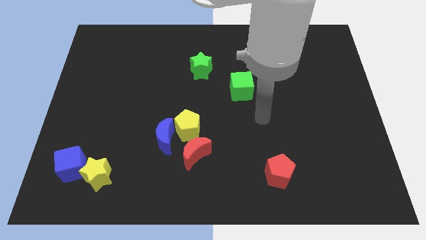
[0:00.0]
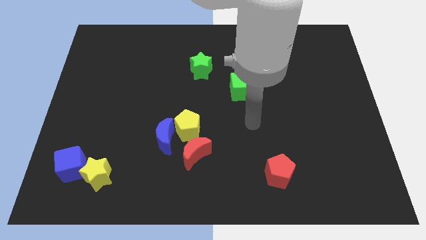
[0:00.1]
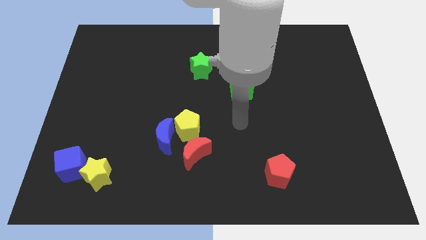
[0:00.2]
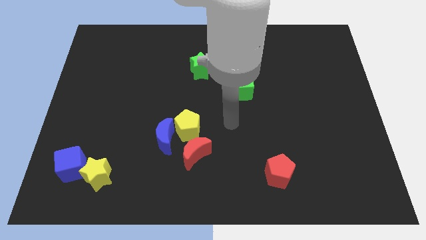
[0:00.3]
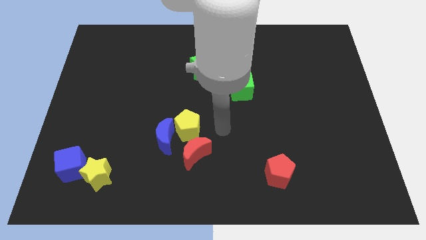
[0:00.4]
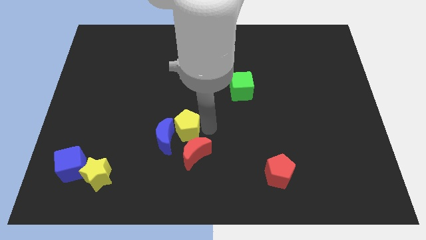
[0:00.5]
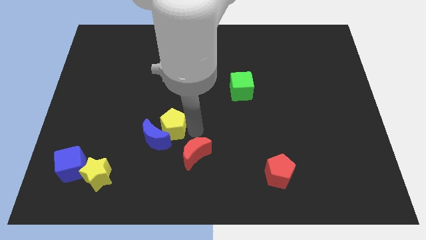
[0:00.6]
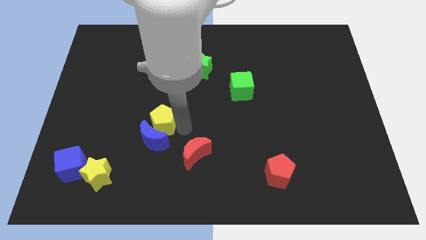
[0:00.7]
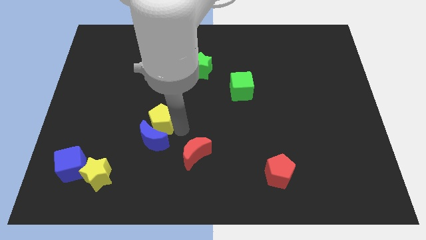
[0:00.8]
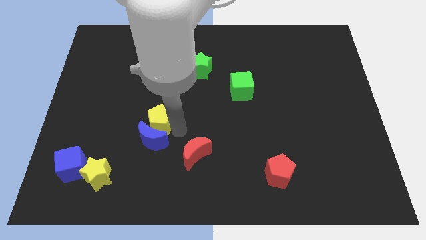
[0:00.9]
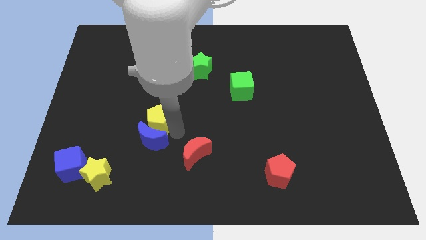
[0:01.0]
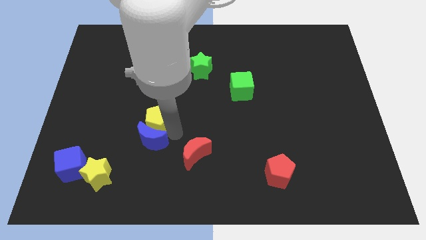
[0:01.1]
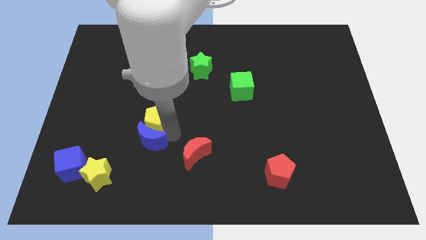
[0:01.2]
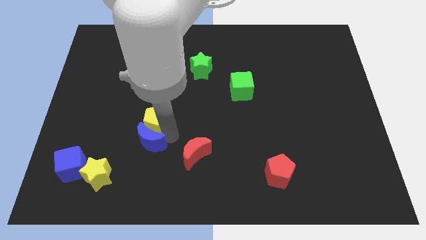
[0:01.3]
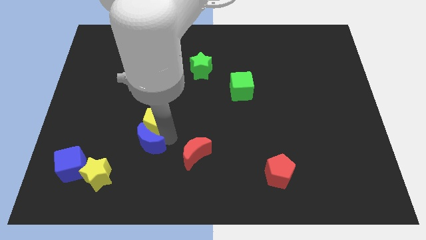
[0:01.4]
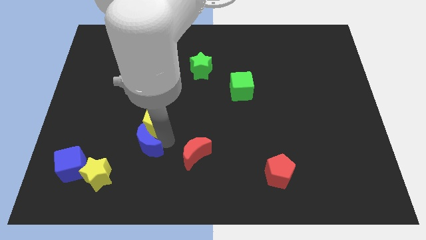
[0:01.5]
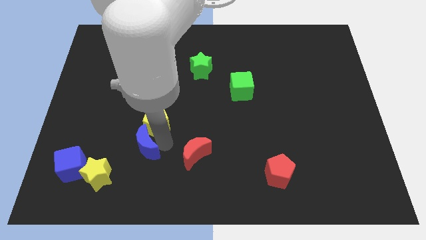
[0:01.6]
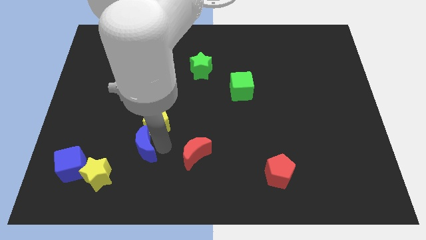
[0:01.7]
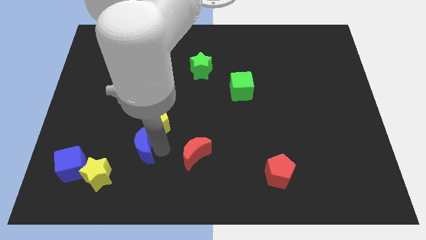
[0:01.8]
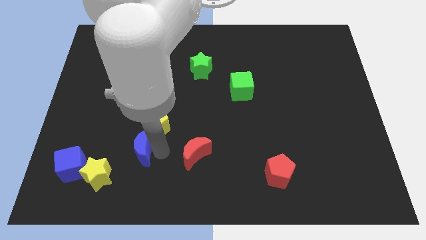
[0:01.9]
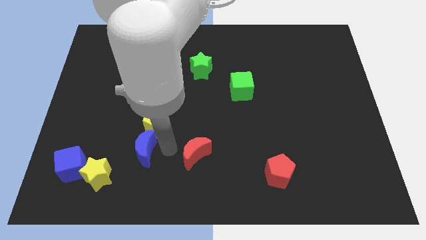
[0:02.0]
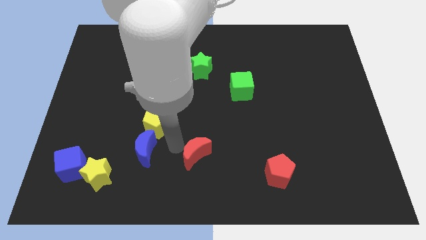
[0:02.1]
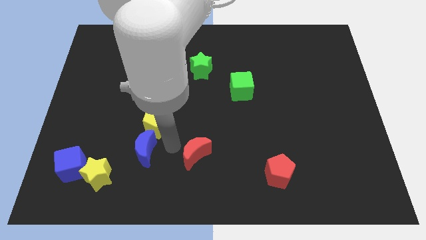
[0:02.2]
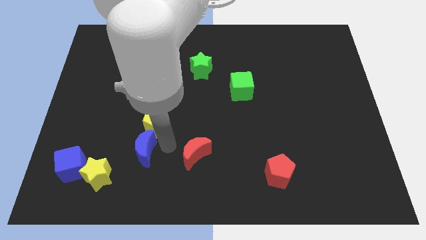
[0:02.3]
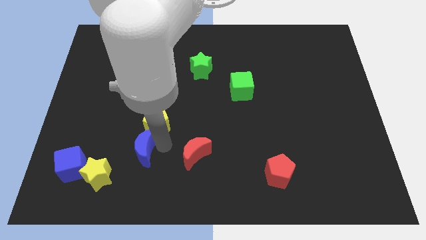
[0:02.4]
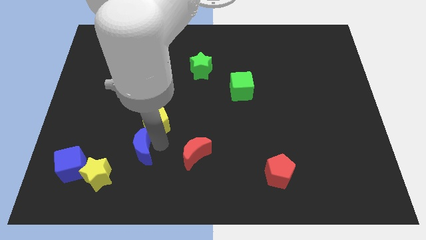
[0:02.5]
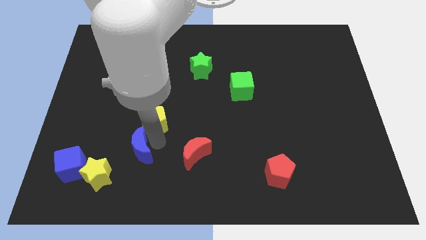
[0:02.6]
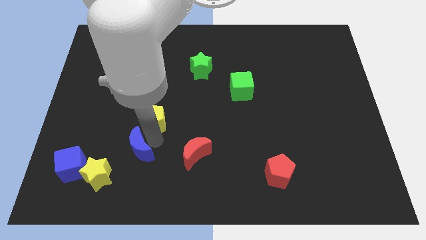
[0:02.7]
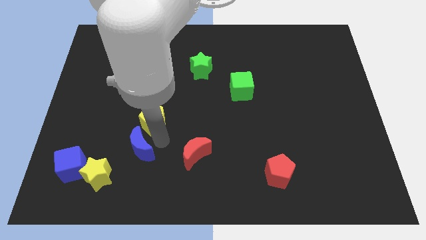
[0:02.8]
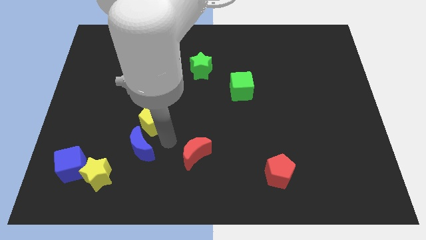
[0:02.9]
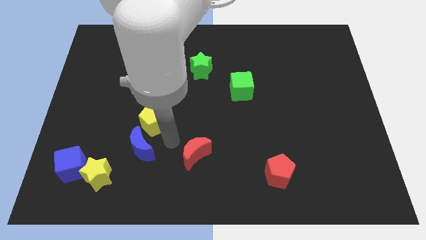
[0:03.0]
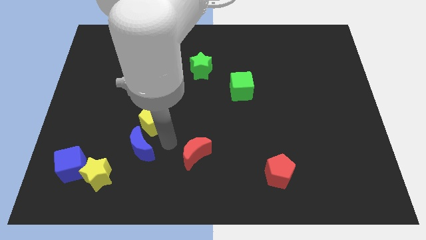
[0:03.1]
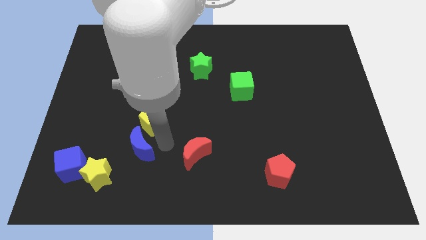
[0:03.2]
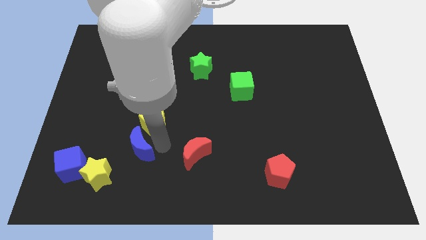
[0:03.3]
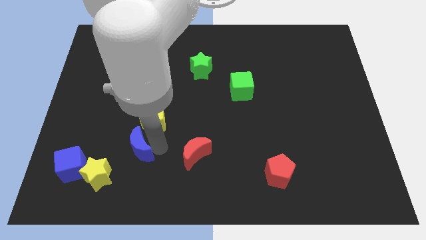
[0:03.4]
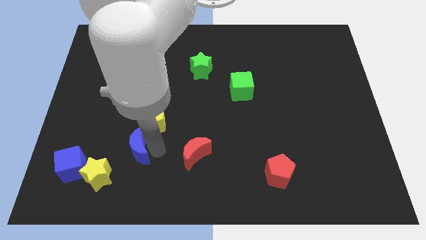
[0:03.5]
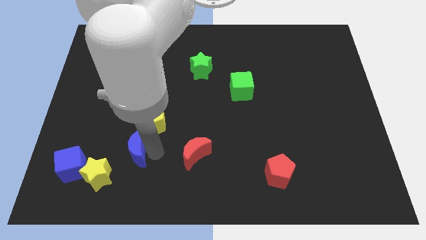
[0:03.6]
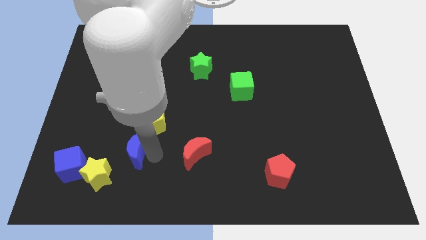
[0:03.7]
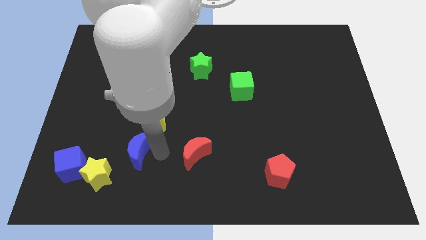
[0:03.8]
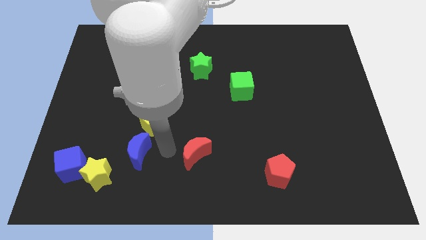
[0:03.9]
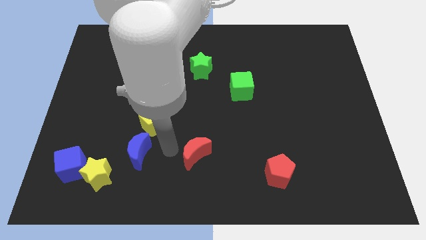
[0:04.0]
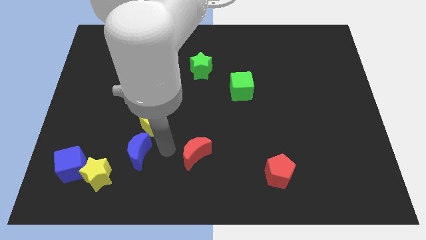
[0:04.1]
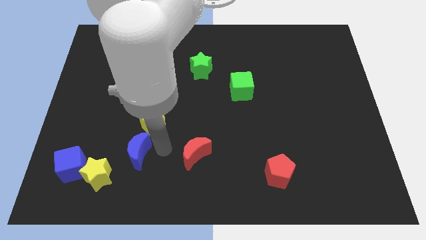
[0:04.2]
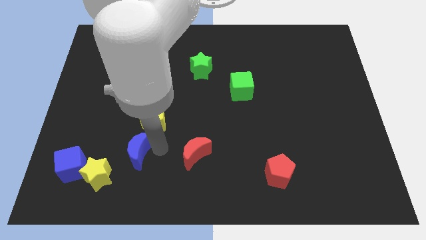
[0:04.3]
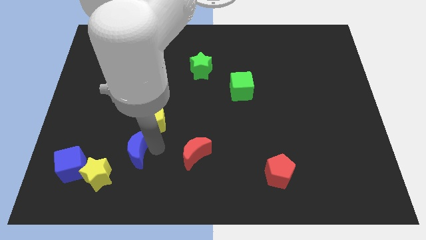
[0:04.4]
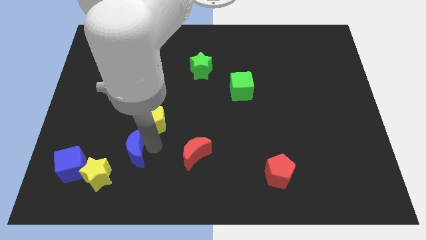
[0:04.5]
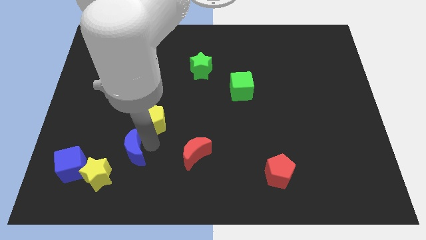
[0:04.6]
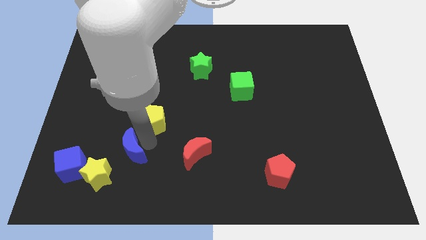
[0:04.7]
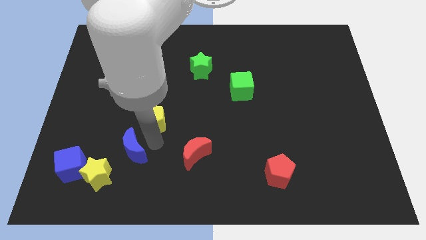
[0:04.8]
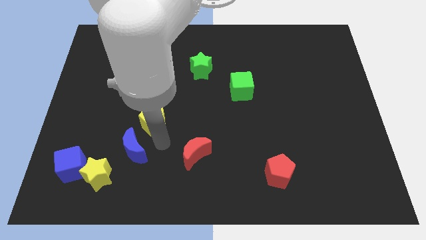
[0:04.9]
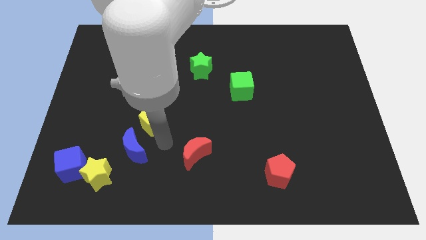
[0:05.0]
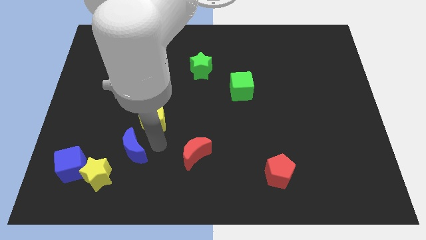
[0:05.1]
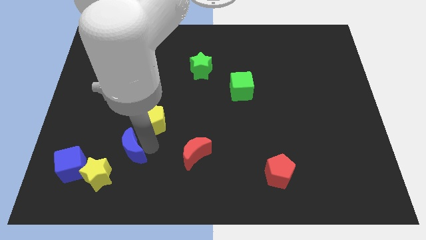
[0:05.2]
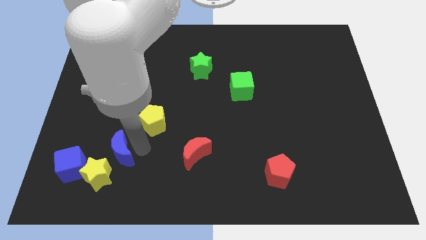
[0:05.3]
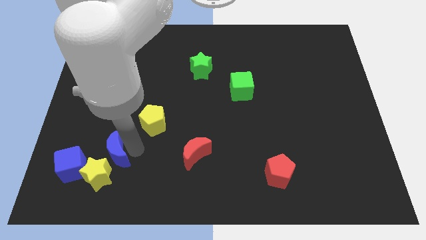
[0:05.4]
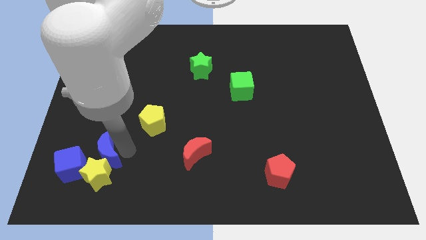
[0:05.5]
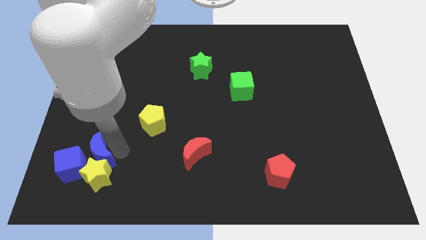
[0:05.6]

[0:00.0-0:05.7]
move the blue moon towards the blue cube

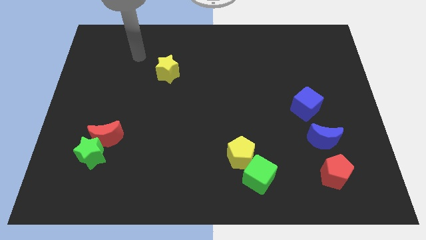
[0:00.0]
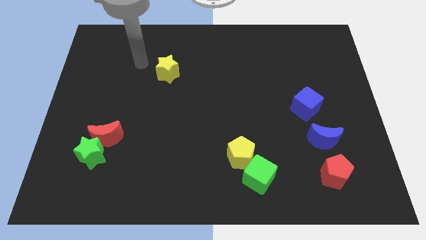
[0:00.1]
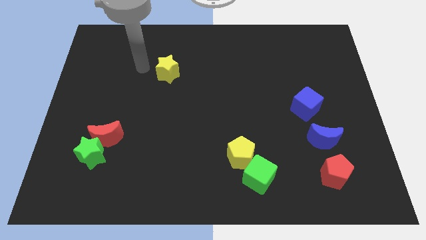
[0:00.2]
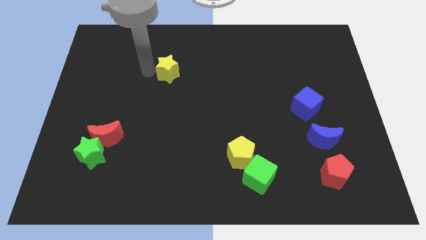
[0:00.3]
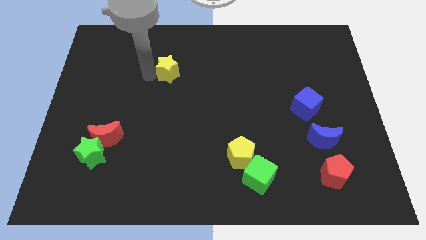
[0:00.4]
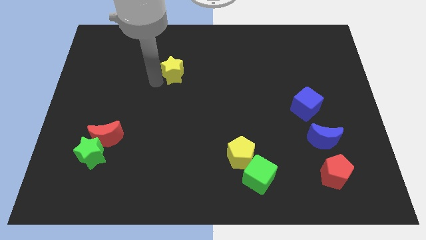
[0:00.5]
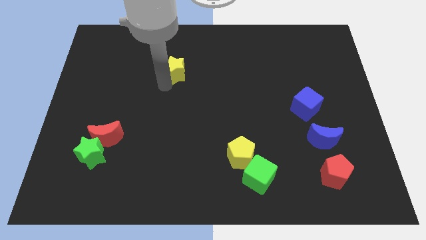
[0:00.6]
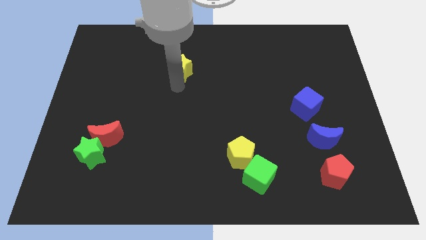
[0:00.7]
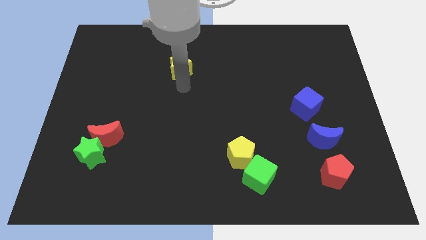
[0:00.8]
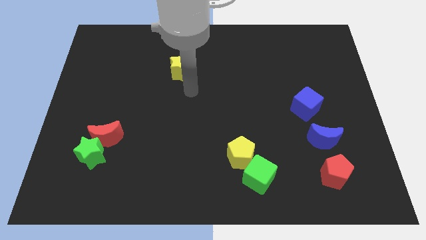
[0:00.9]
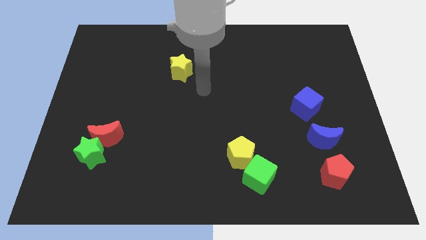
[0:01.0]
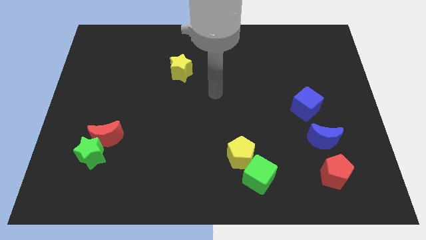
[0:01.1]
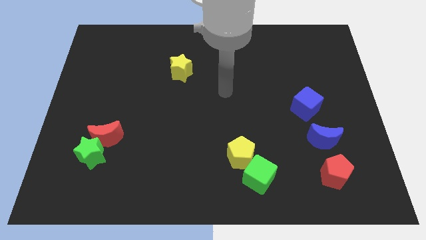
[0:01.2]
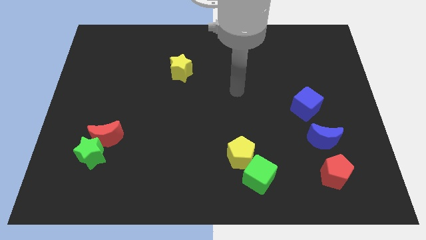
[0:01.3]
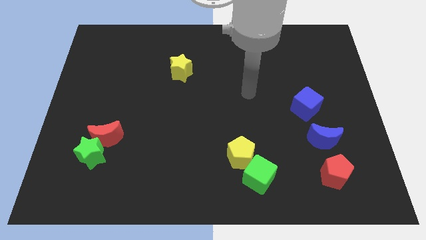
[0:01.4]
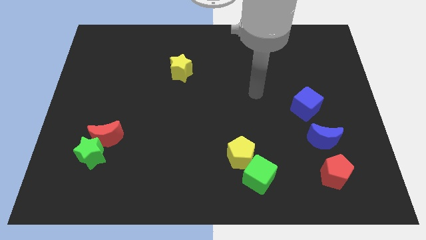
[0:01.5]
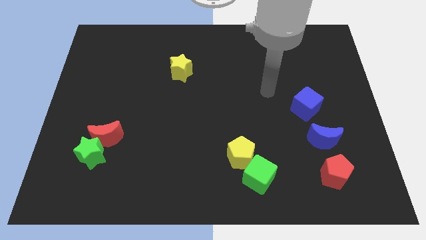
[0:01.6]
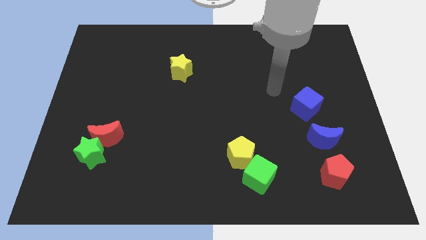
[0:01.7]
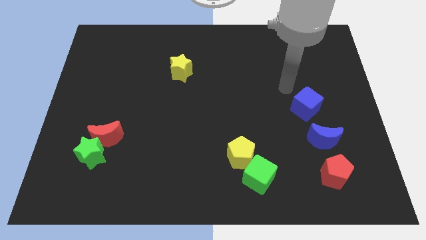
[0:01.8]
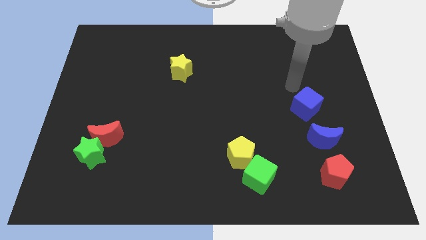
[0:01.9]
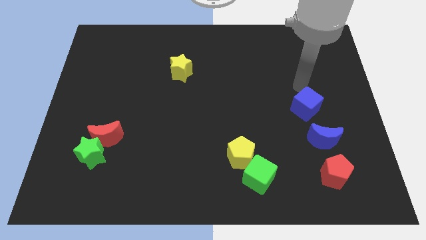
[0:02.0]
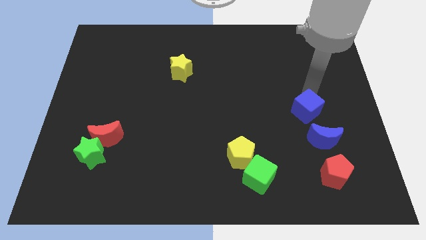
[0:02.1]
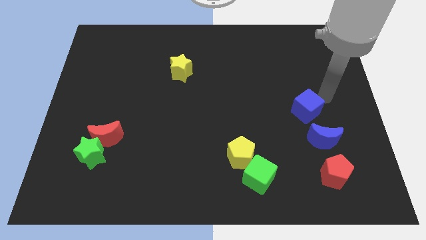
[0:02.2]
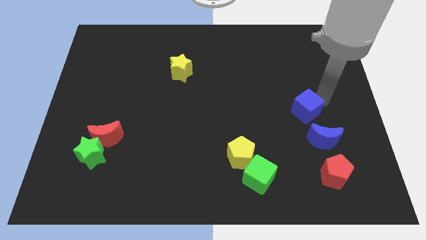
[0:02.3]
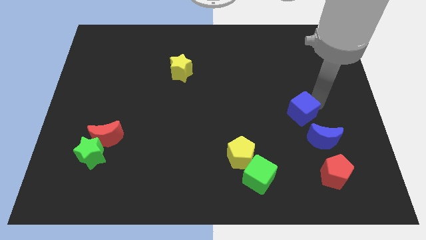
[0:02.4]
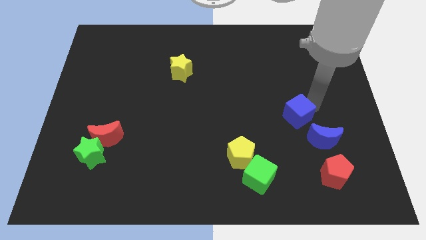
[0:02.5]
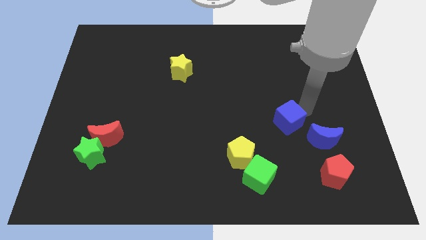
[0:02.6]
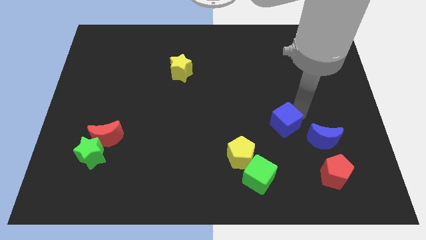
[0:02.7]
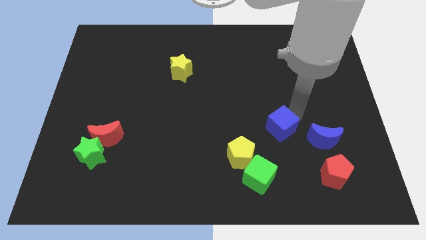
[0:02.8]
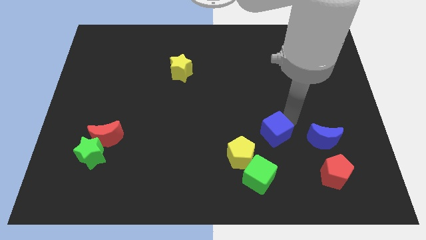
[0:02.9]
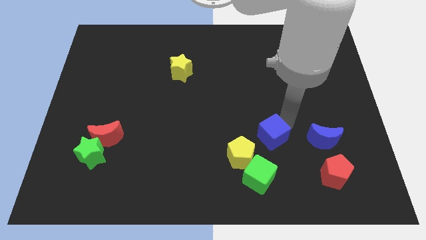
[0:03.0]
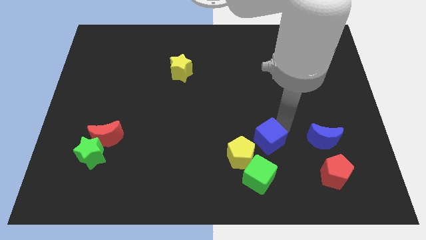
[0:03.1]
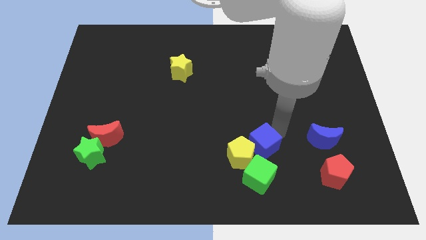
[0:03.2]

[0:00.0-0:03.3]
slide the blue cube next to the yellow pentagon
